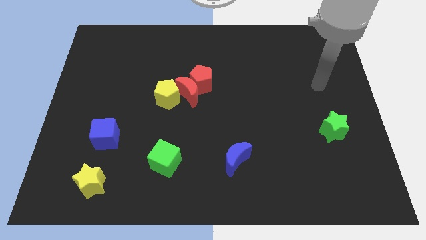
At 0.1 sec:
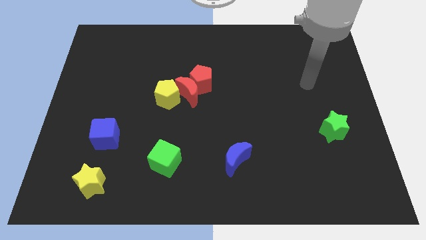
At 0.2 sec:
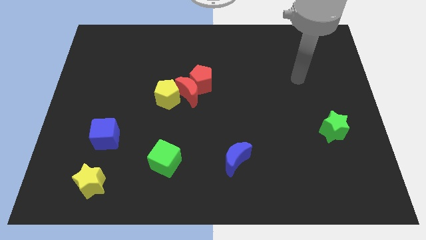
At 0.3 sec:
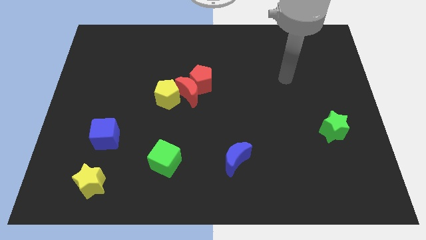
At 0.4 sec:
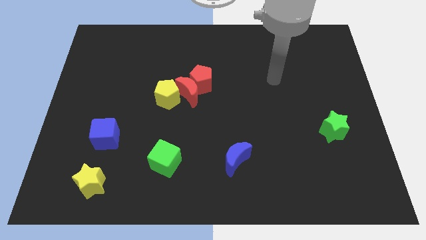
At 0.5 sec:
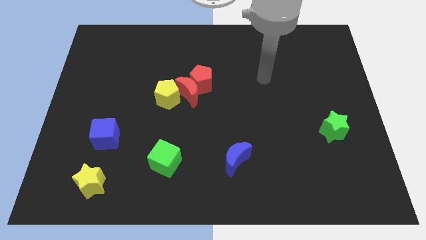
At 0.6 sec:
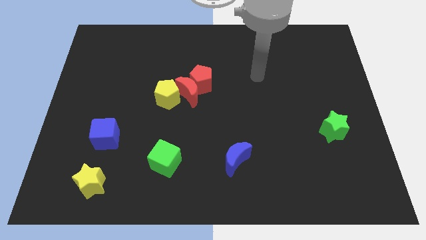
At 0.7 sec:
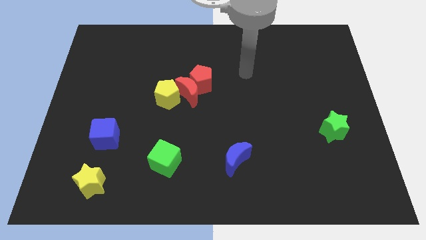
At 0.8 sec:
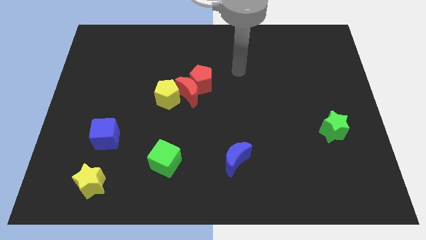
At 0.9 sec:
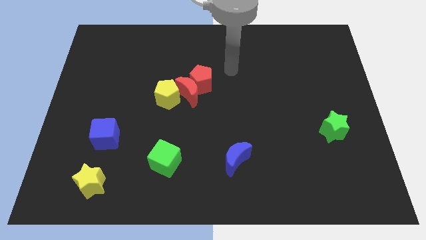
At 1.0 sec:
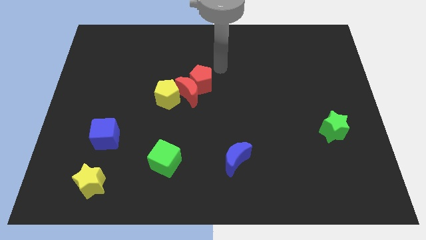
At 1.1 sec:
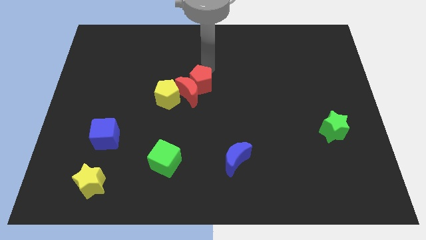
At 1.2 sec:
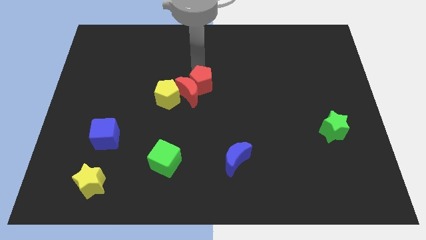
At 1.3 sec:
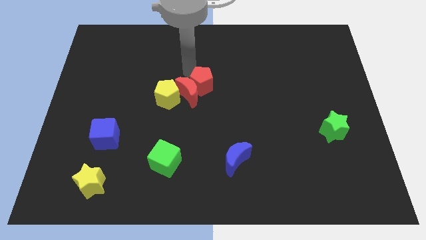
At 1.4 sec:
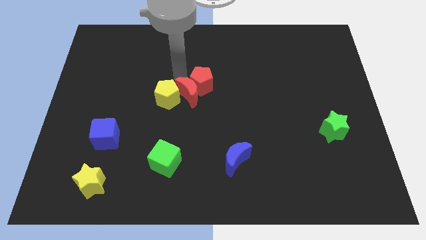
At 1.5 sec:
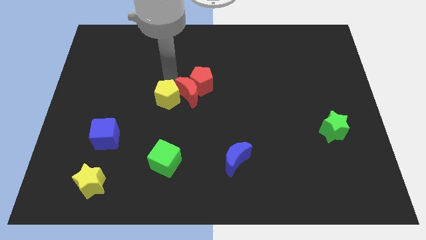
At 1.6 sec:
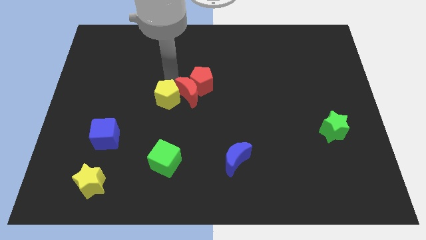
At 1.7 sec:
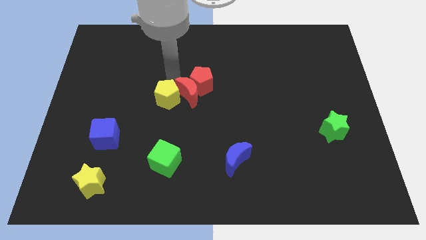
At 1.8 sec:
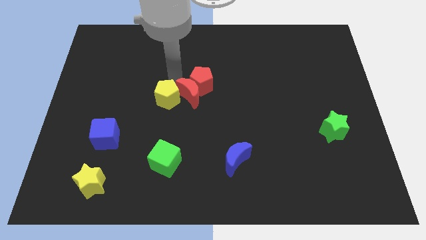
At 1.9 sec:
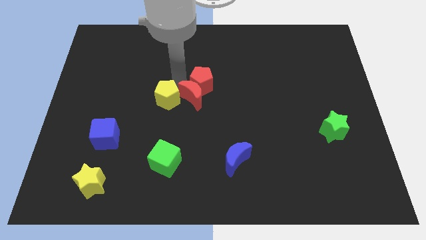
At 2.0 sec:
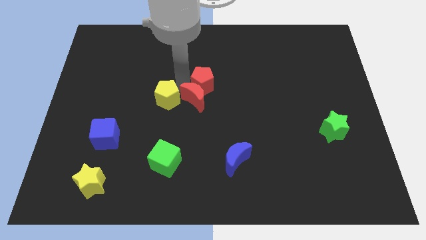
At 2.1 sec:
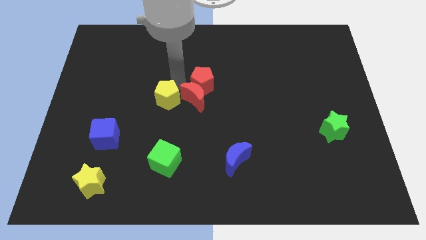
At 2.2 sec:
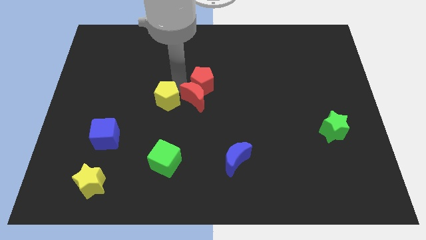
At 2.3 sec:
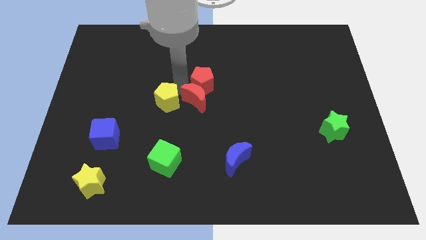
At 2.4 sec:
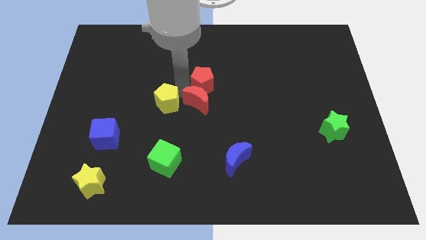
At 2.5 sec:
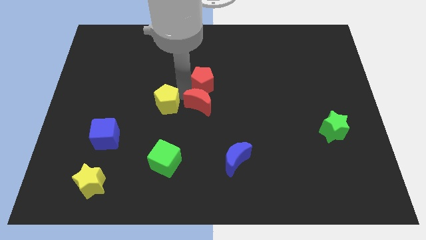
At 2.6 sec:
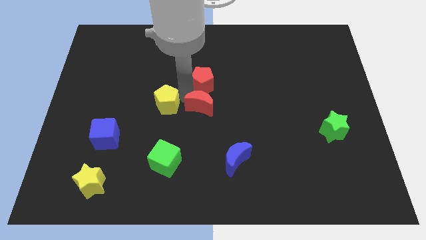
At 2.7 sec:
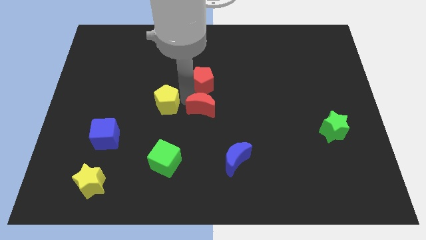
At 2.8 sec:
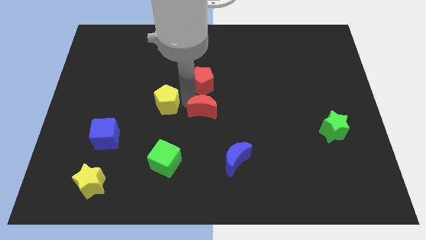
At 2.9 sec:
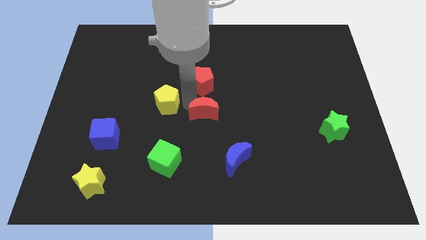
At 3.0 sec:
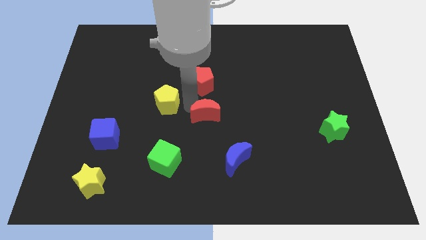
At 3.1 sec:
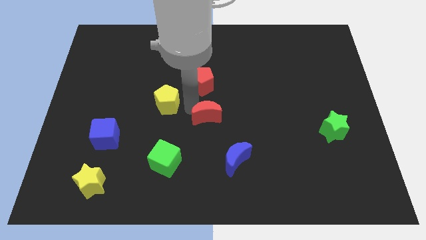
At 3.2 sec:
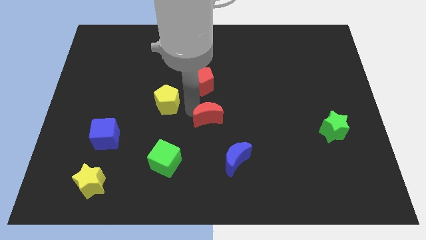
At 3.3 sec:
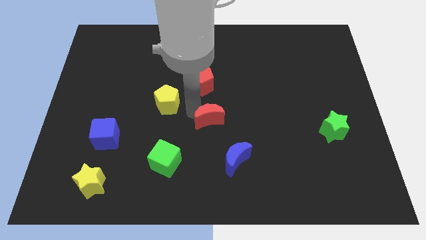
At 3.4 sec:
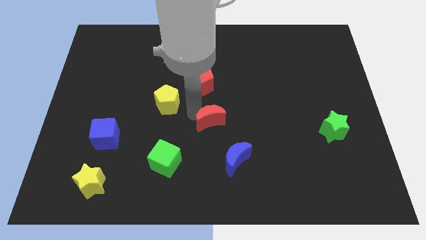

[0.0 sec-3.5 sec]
move the red moon away from the red pentagon and yellow pentagon

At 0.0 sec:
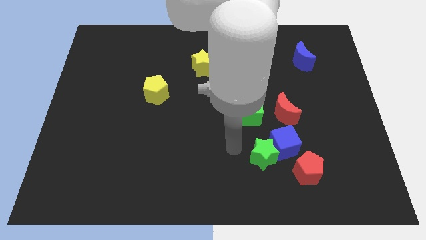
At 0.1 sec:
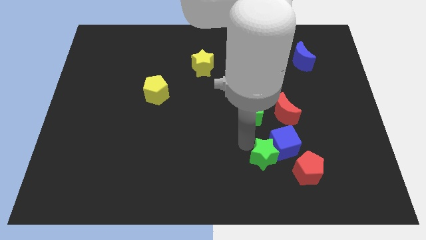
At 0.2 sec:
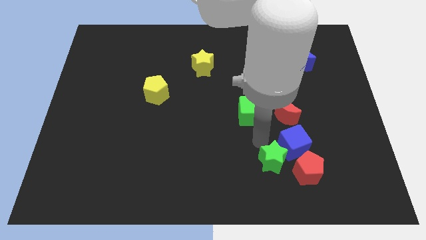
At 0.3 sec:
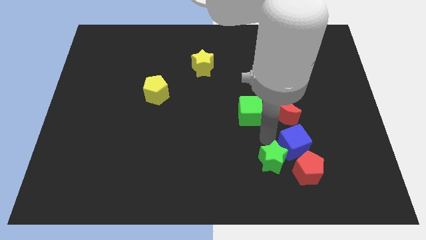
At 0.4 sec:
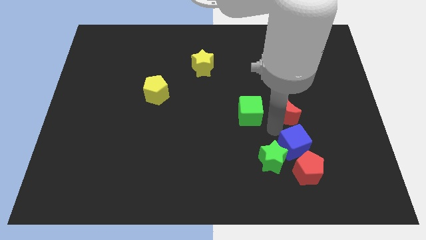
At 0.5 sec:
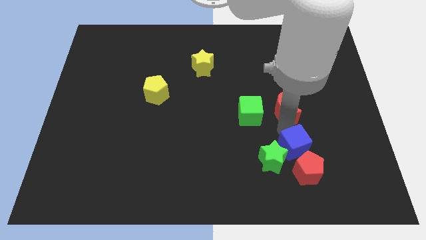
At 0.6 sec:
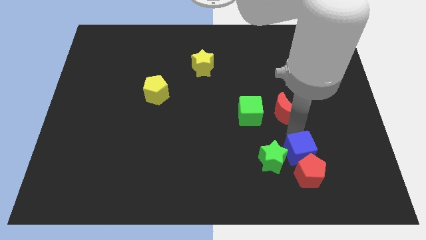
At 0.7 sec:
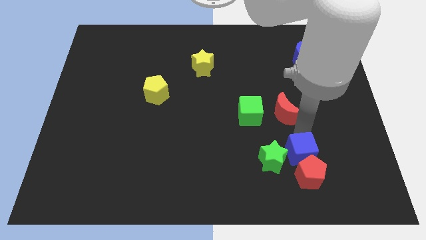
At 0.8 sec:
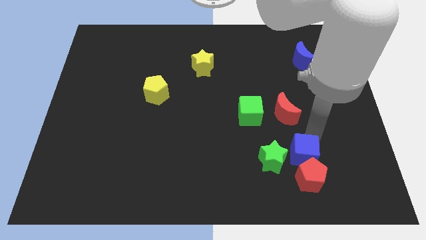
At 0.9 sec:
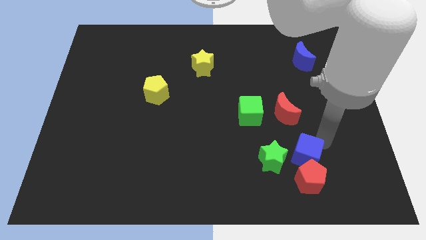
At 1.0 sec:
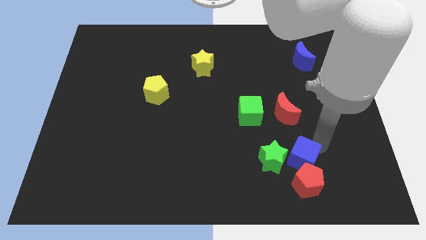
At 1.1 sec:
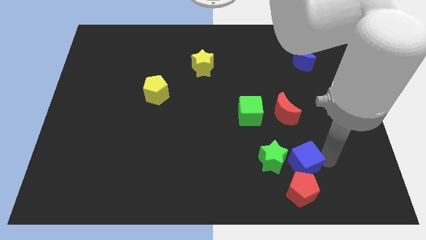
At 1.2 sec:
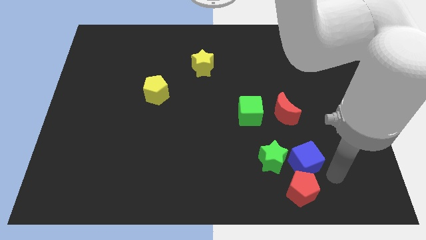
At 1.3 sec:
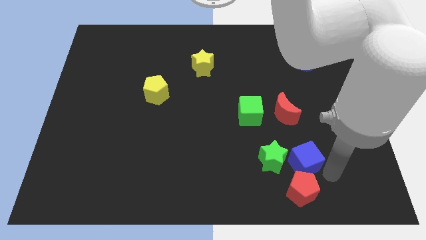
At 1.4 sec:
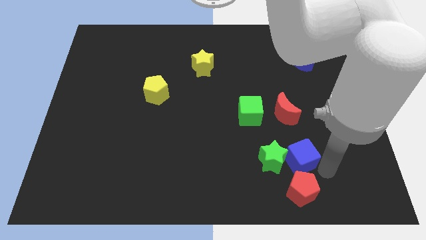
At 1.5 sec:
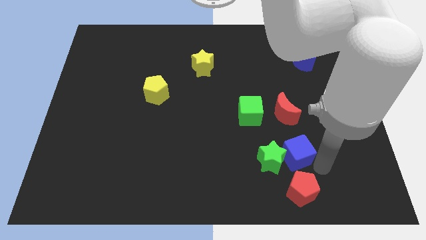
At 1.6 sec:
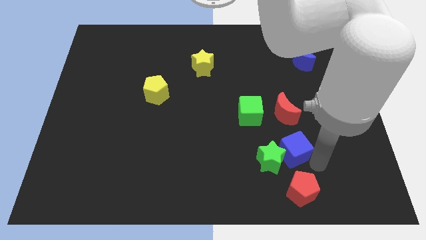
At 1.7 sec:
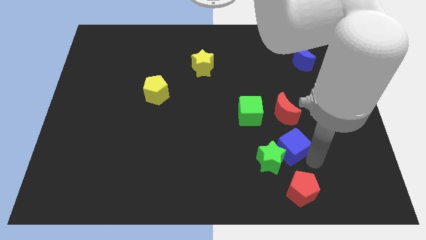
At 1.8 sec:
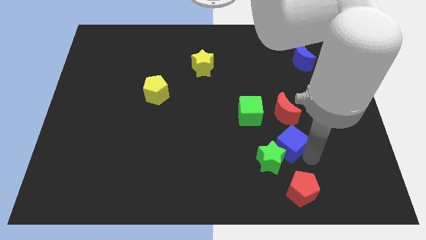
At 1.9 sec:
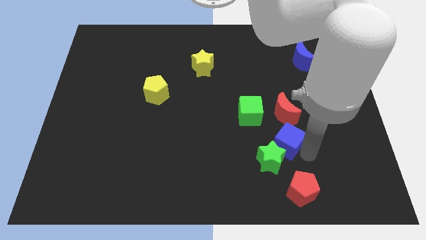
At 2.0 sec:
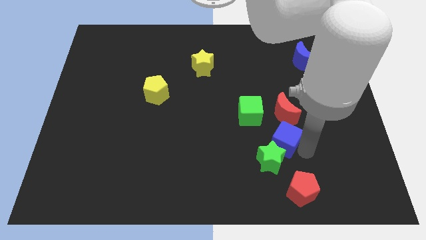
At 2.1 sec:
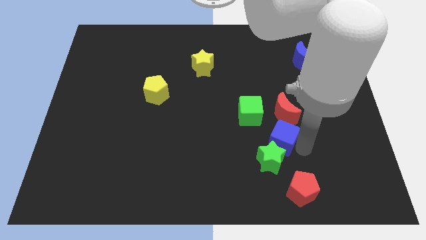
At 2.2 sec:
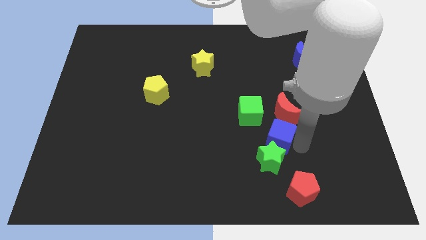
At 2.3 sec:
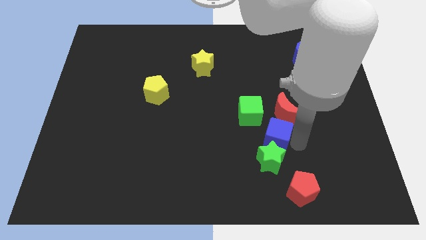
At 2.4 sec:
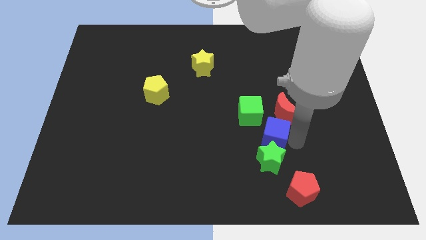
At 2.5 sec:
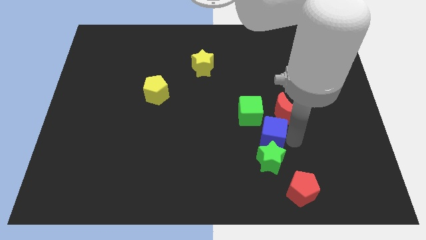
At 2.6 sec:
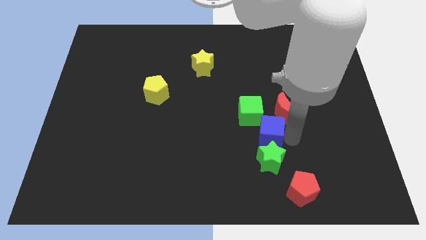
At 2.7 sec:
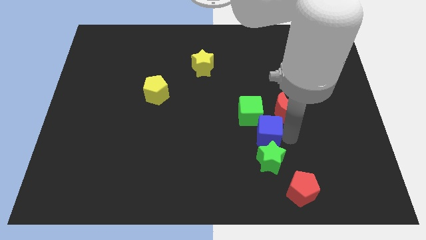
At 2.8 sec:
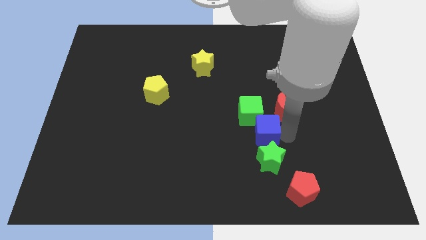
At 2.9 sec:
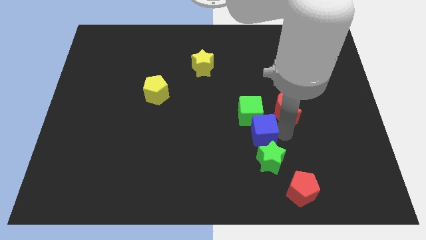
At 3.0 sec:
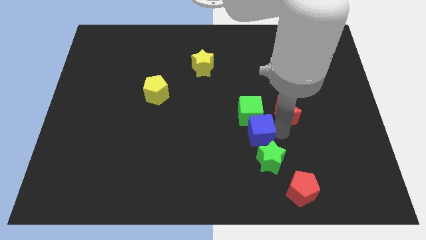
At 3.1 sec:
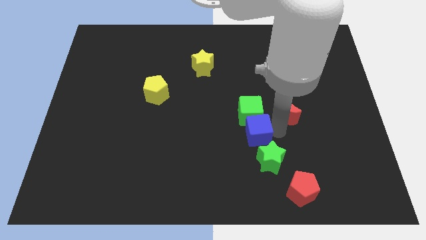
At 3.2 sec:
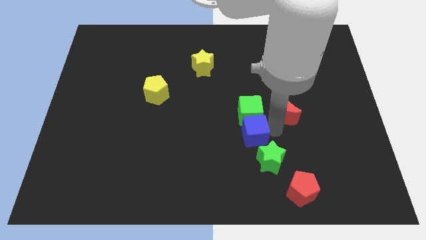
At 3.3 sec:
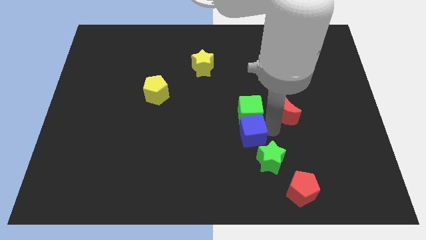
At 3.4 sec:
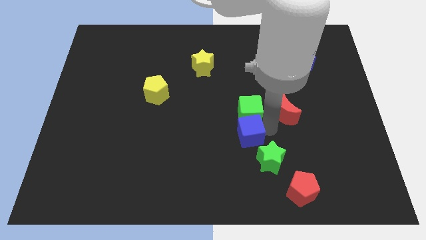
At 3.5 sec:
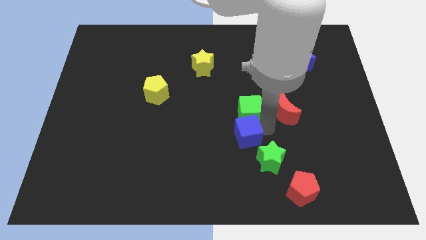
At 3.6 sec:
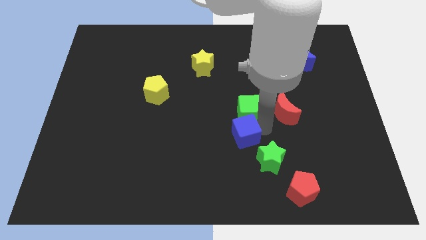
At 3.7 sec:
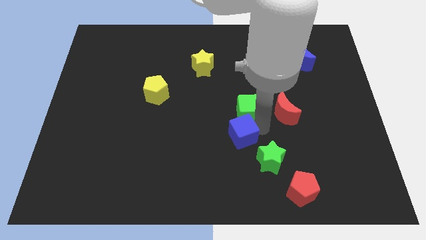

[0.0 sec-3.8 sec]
pull the blue cube apart from the clump

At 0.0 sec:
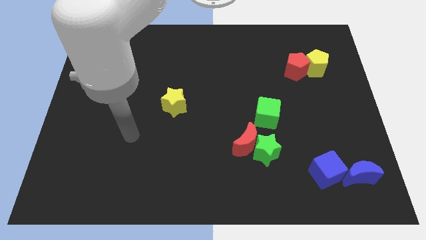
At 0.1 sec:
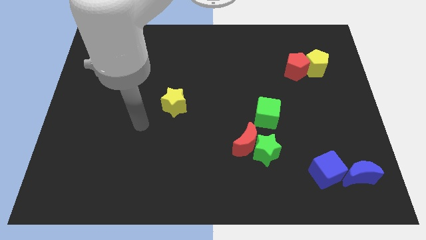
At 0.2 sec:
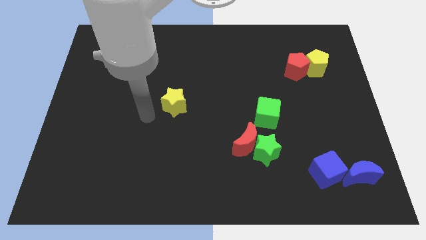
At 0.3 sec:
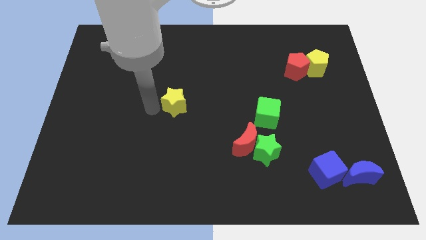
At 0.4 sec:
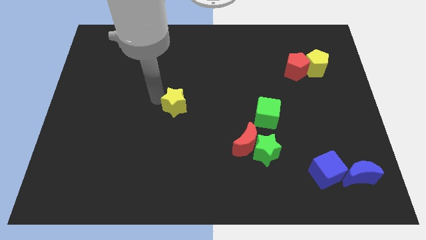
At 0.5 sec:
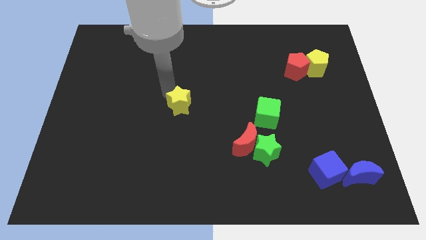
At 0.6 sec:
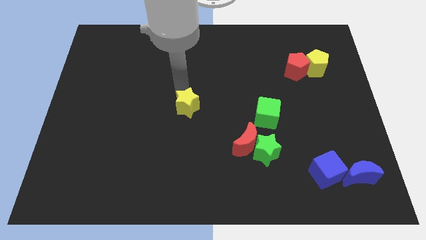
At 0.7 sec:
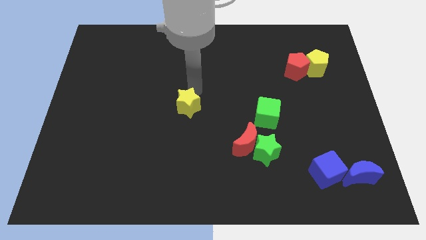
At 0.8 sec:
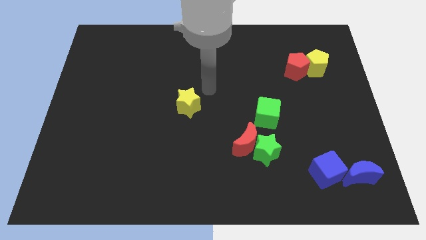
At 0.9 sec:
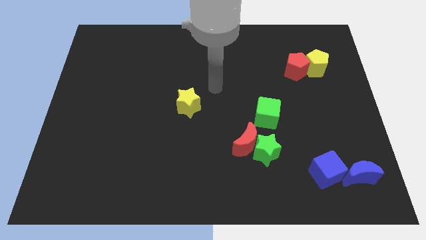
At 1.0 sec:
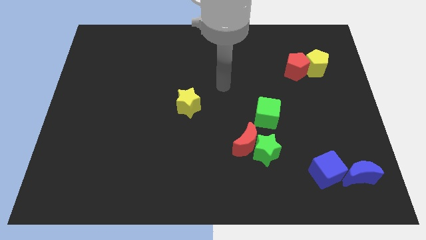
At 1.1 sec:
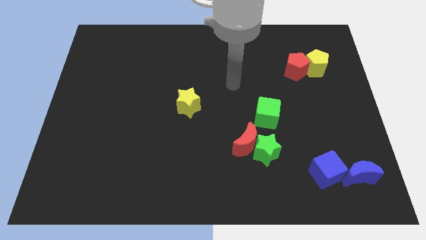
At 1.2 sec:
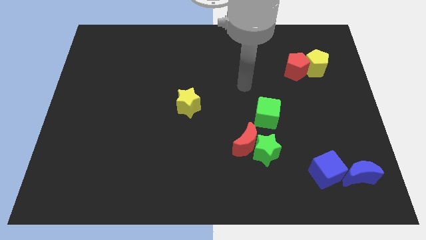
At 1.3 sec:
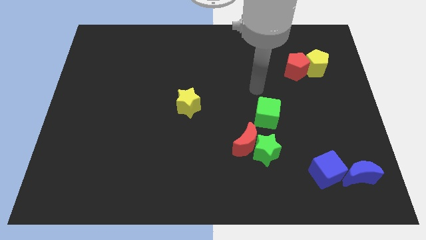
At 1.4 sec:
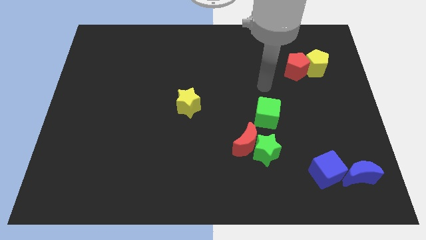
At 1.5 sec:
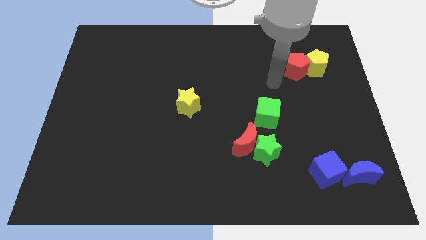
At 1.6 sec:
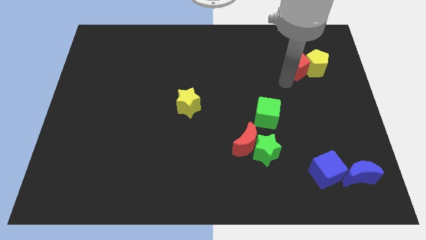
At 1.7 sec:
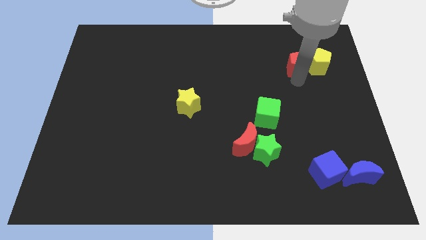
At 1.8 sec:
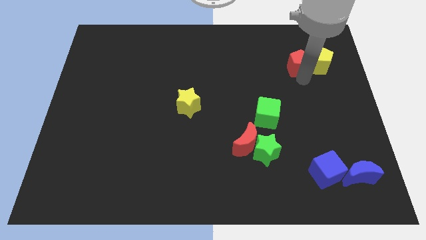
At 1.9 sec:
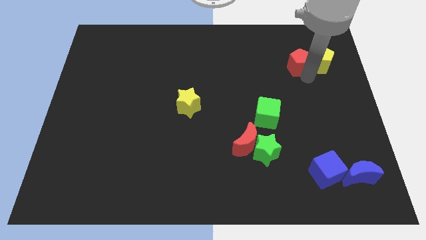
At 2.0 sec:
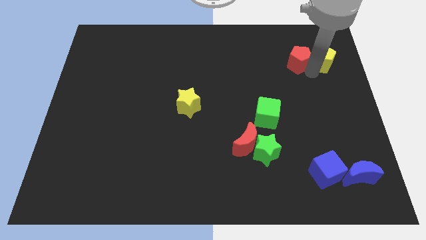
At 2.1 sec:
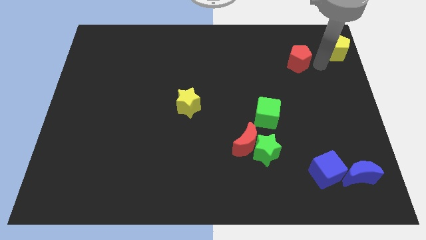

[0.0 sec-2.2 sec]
move the red pentagon away from the yellow pentagon
